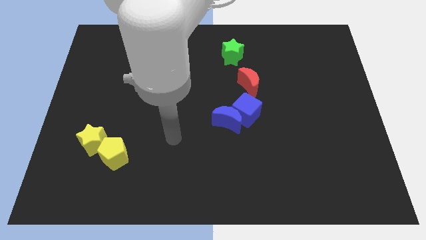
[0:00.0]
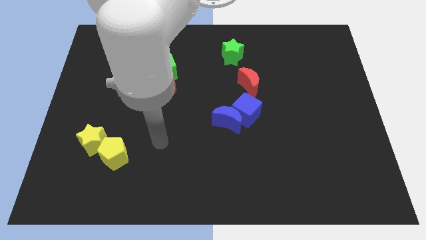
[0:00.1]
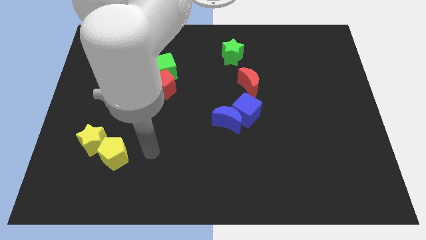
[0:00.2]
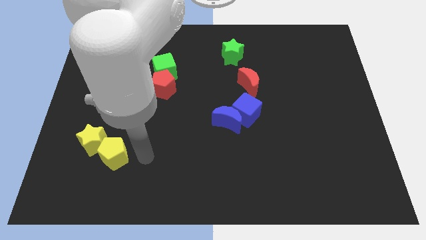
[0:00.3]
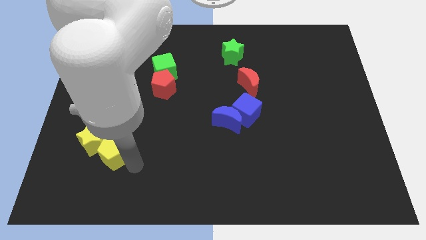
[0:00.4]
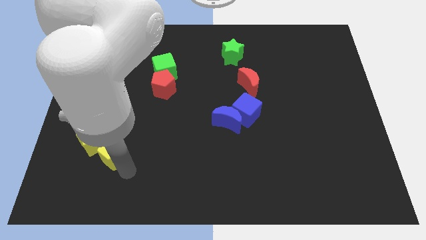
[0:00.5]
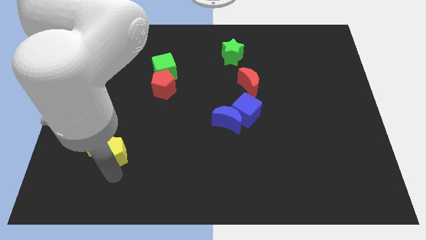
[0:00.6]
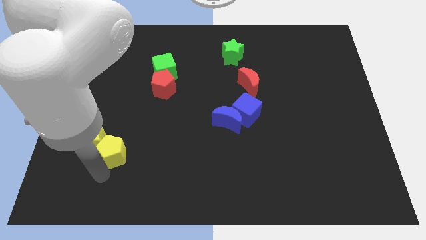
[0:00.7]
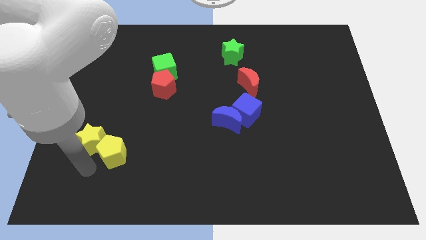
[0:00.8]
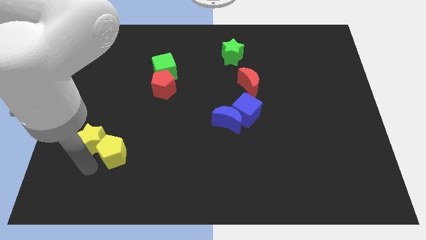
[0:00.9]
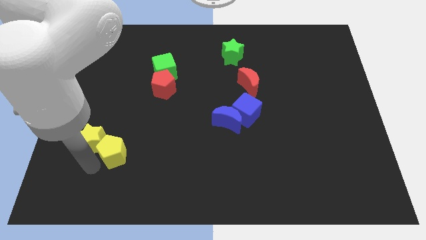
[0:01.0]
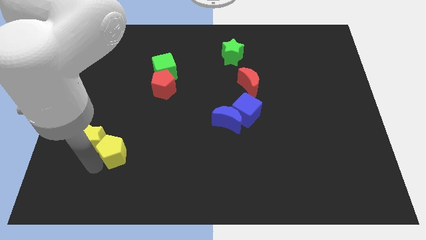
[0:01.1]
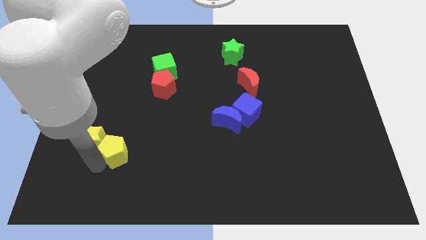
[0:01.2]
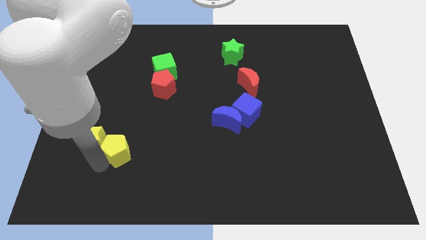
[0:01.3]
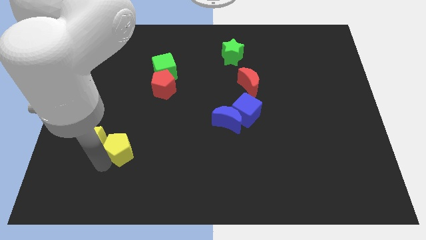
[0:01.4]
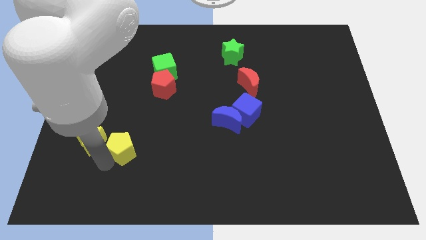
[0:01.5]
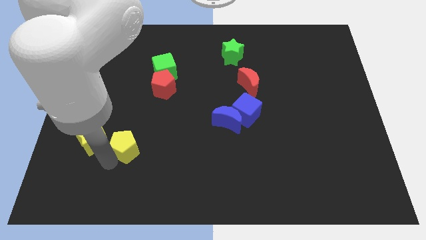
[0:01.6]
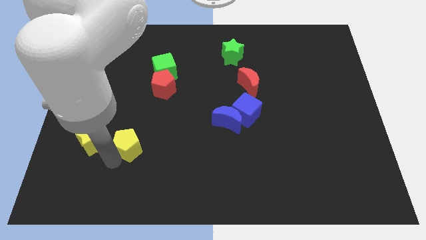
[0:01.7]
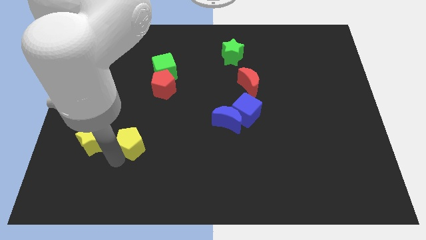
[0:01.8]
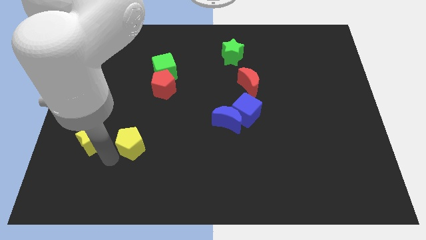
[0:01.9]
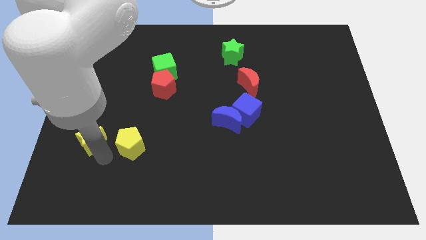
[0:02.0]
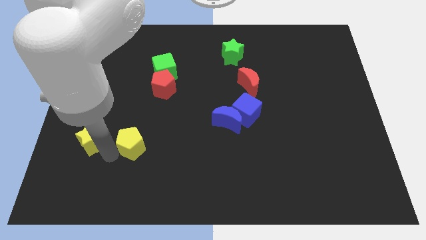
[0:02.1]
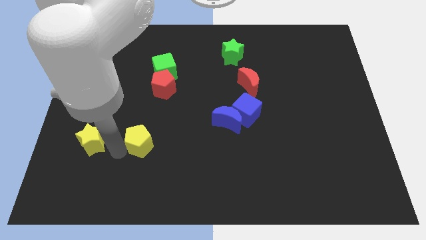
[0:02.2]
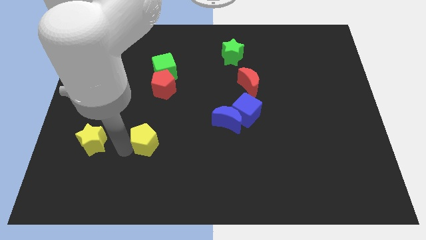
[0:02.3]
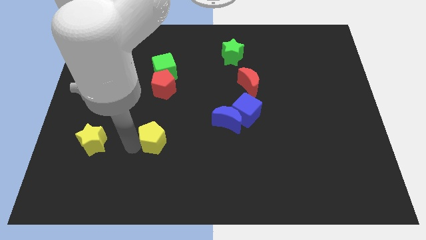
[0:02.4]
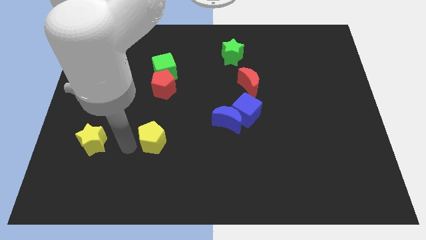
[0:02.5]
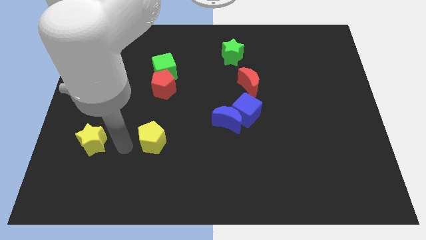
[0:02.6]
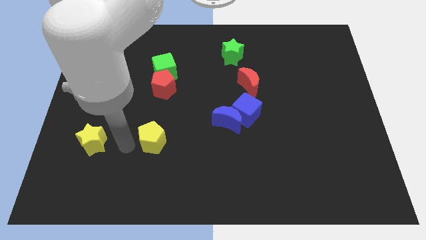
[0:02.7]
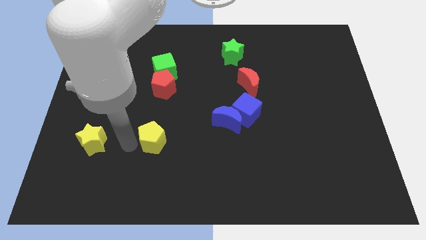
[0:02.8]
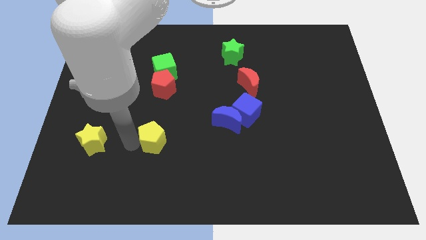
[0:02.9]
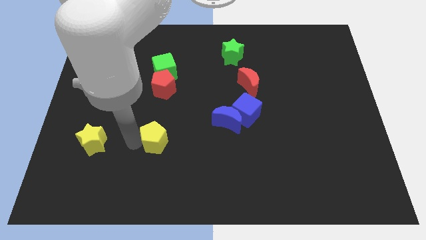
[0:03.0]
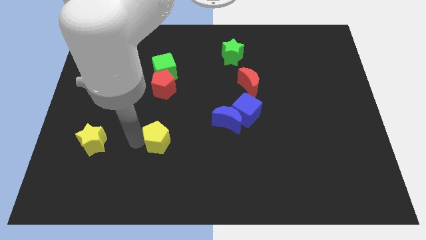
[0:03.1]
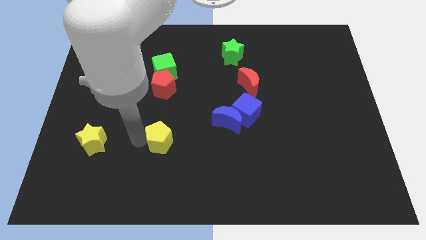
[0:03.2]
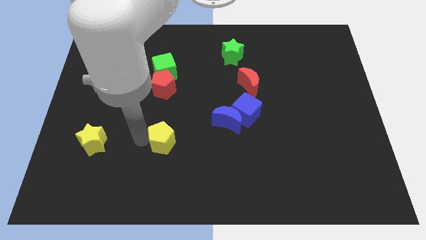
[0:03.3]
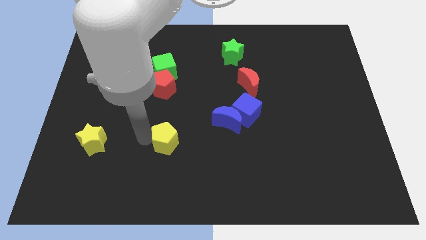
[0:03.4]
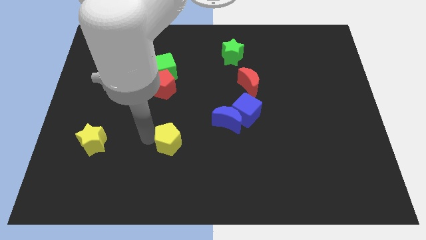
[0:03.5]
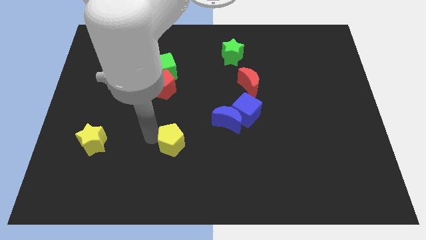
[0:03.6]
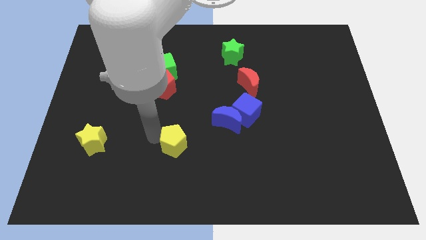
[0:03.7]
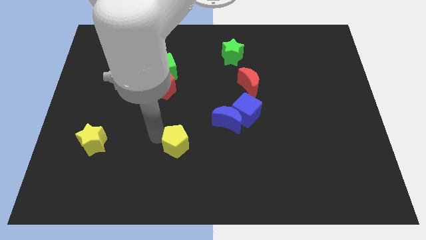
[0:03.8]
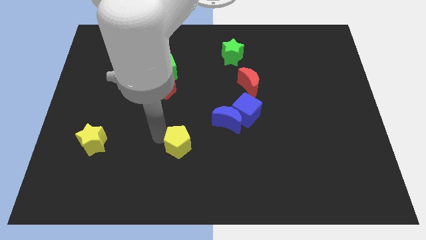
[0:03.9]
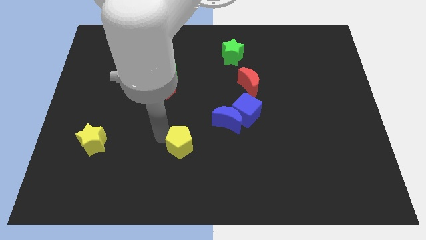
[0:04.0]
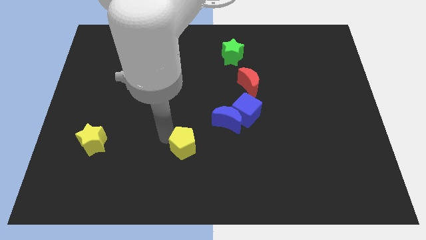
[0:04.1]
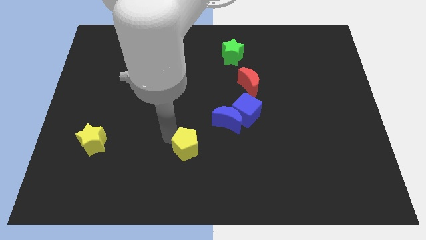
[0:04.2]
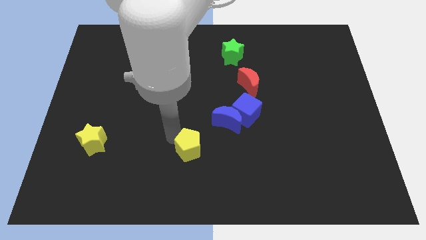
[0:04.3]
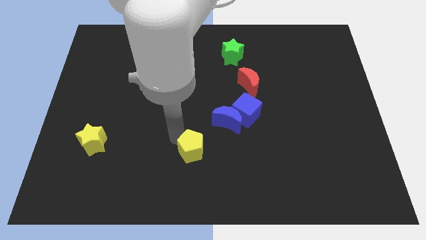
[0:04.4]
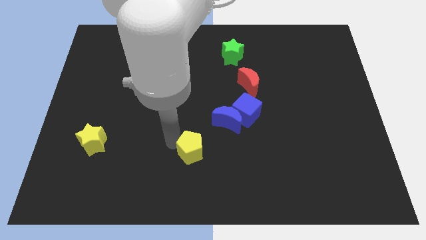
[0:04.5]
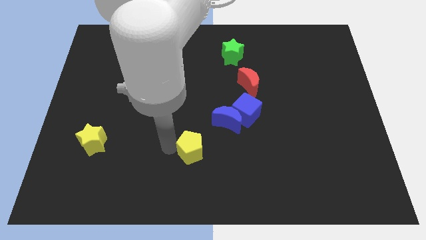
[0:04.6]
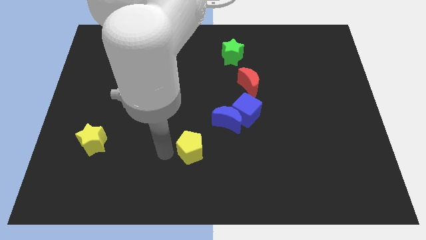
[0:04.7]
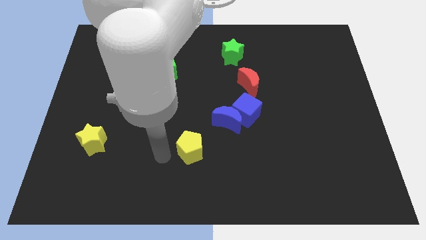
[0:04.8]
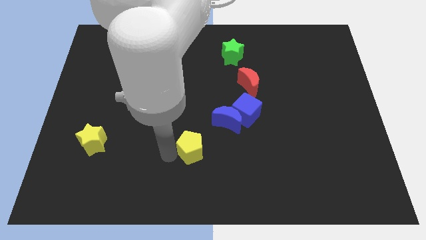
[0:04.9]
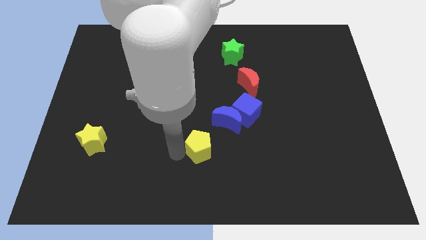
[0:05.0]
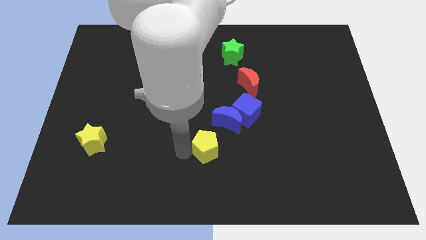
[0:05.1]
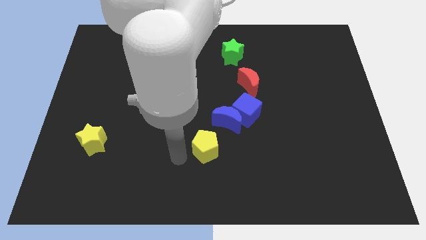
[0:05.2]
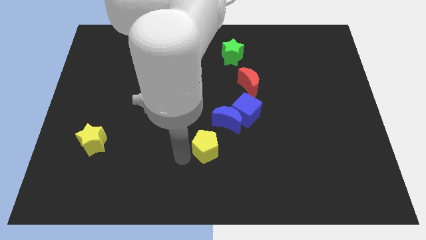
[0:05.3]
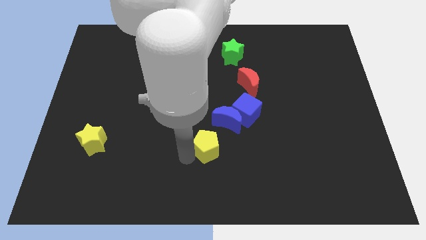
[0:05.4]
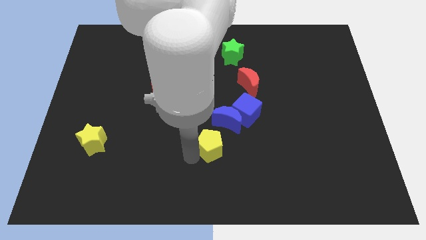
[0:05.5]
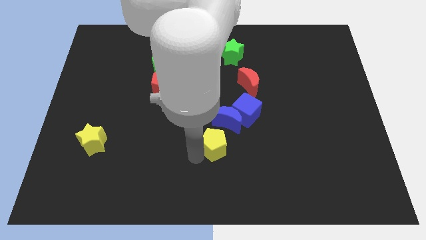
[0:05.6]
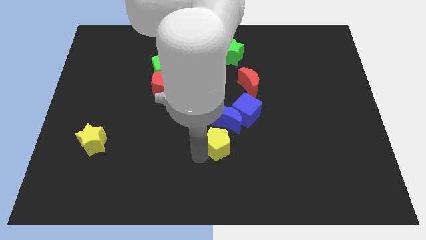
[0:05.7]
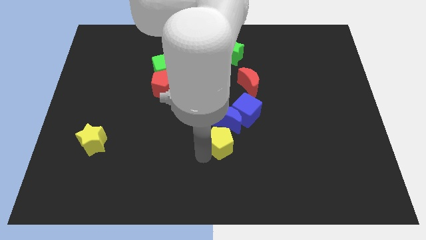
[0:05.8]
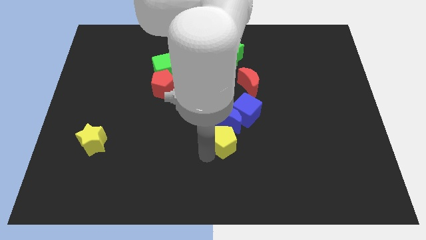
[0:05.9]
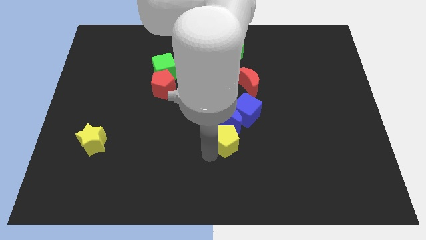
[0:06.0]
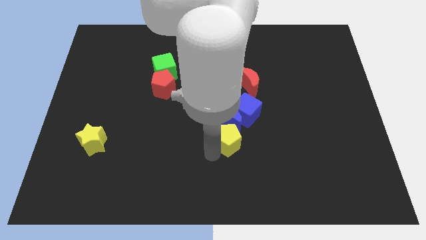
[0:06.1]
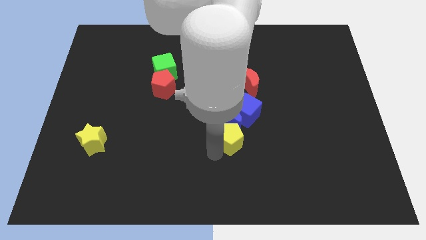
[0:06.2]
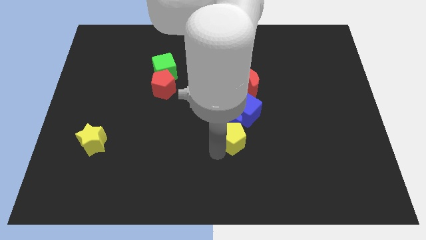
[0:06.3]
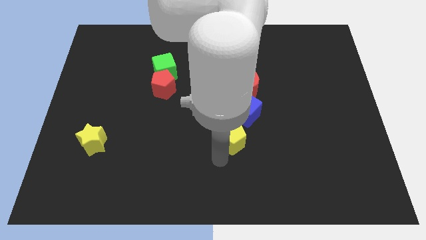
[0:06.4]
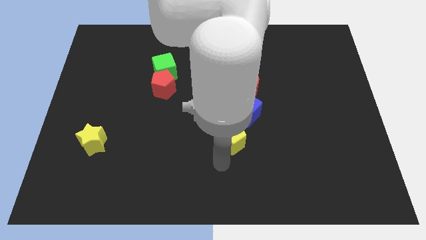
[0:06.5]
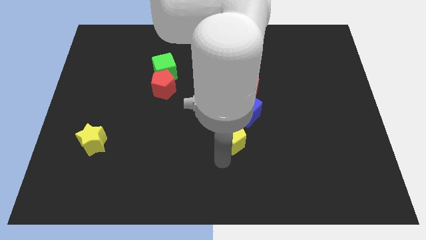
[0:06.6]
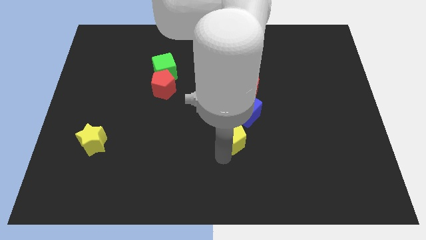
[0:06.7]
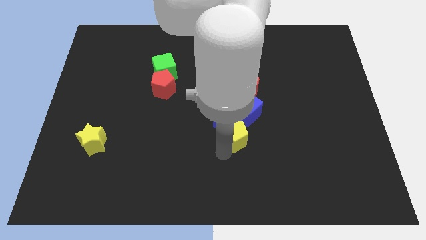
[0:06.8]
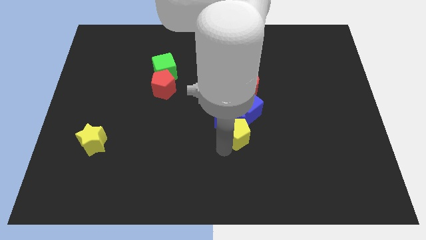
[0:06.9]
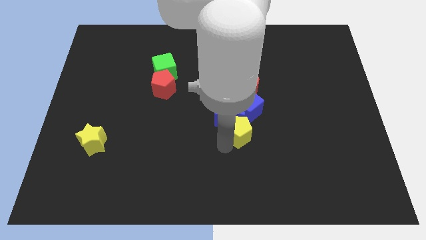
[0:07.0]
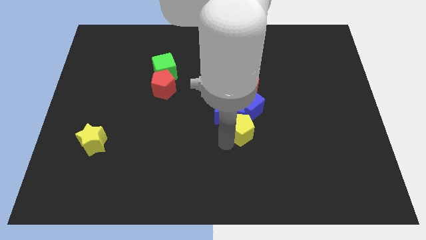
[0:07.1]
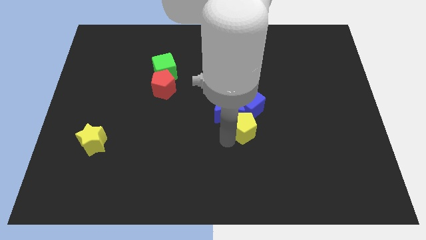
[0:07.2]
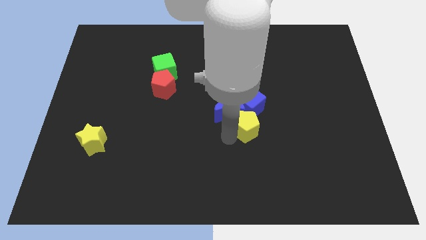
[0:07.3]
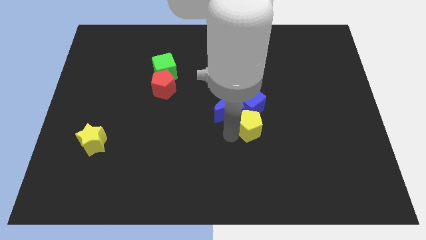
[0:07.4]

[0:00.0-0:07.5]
push the yellow pentagon close to the blue cube

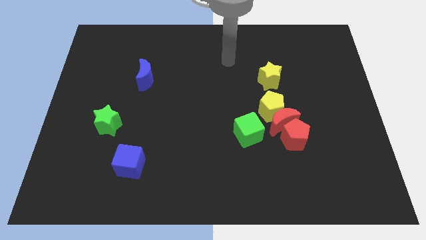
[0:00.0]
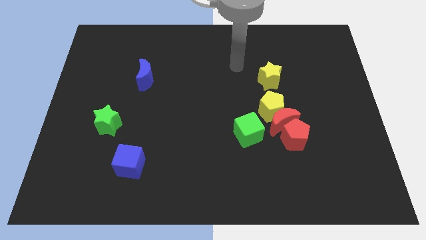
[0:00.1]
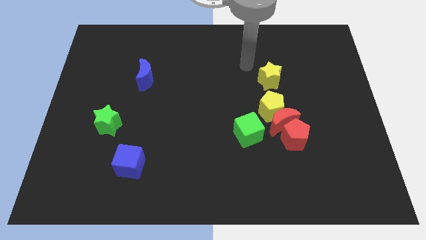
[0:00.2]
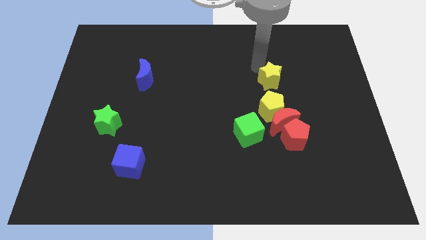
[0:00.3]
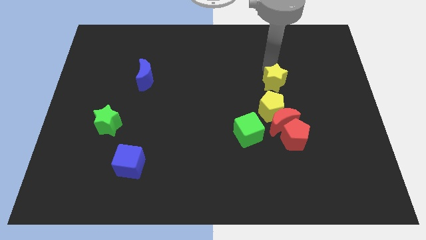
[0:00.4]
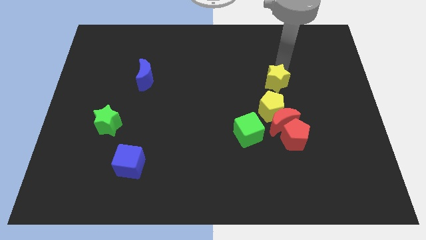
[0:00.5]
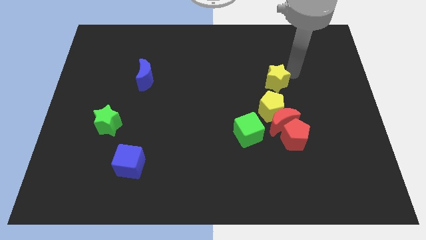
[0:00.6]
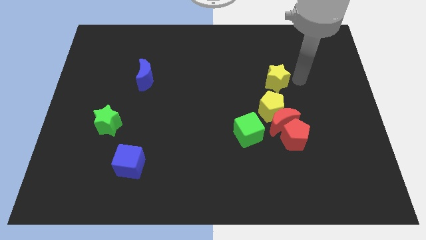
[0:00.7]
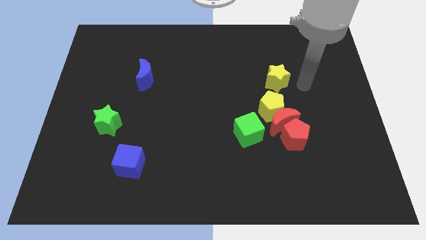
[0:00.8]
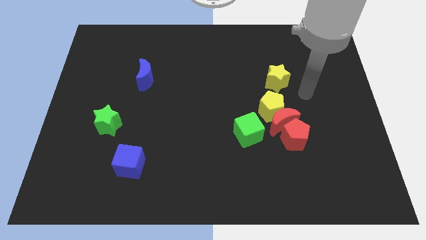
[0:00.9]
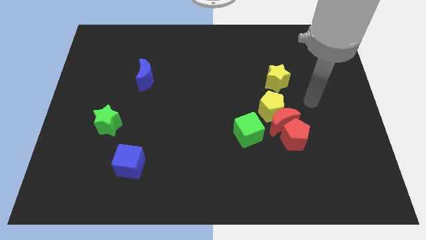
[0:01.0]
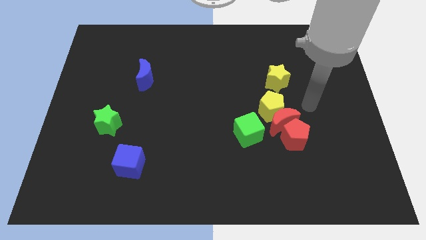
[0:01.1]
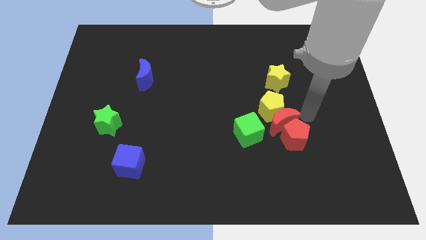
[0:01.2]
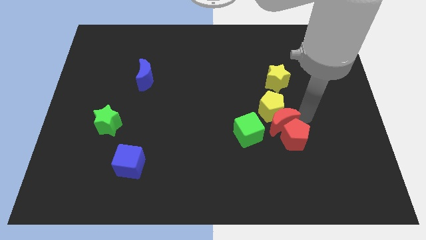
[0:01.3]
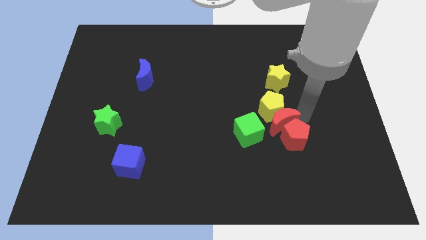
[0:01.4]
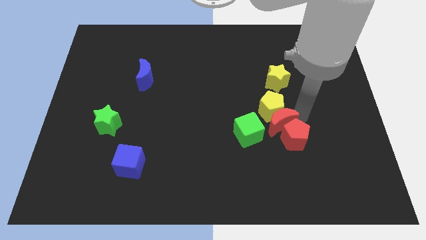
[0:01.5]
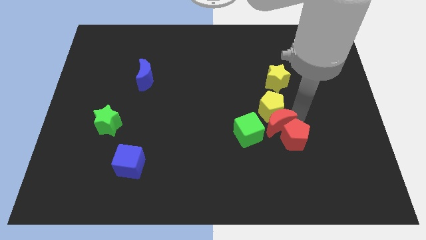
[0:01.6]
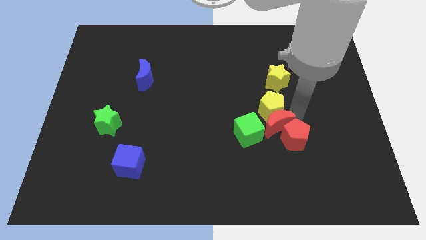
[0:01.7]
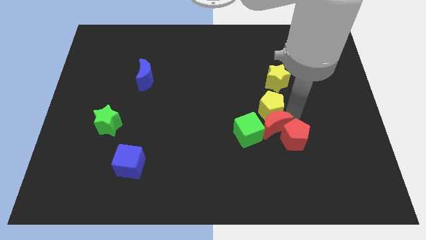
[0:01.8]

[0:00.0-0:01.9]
slide the red moon close to the green cube
